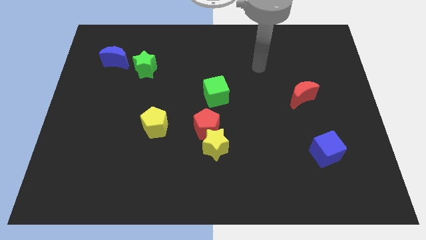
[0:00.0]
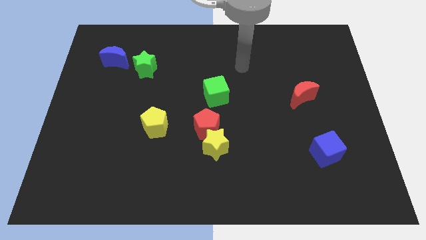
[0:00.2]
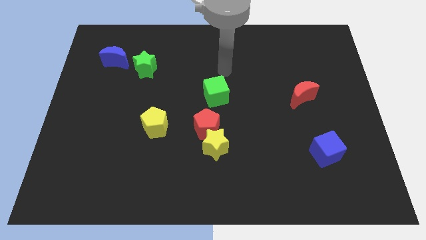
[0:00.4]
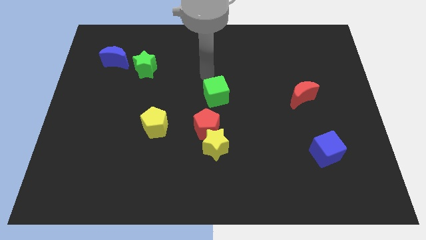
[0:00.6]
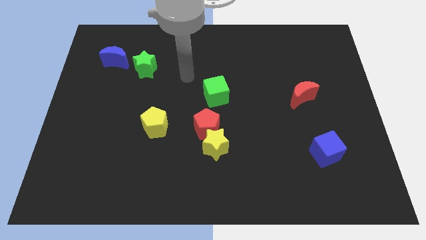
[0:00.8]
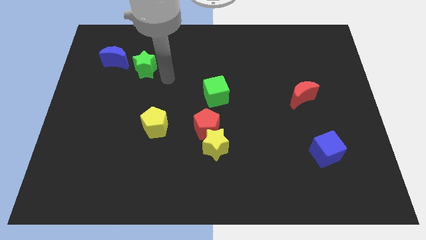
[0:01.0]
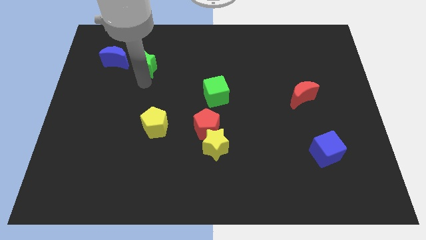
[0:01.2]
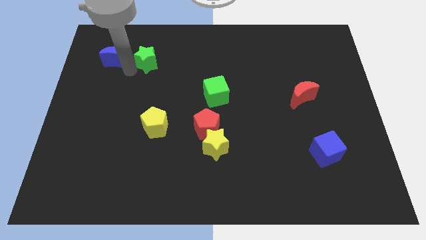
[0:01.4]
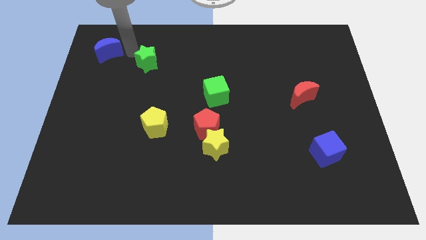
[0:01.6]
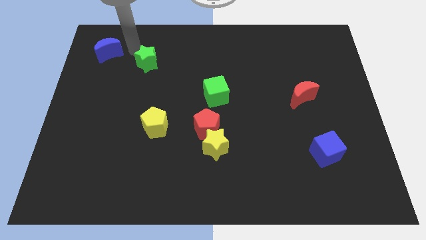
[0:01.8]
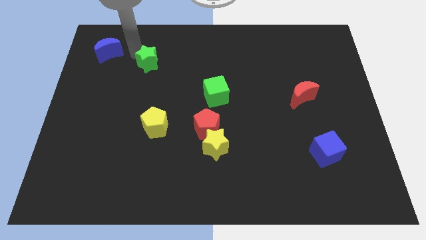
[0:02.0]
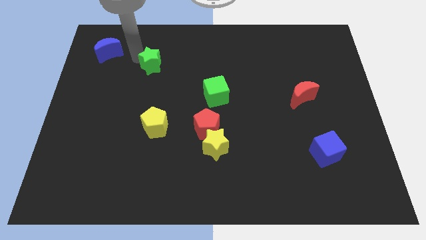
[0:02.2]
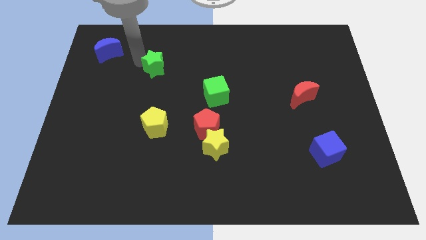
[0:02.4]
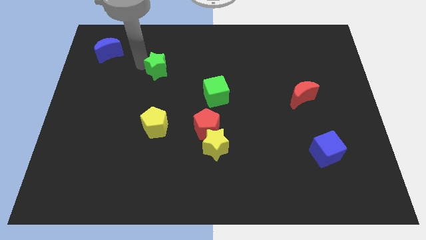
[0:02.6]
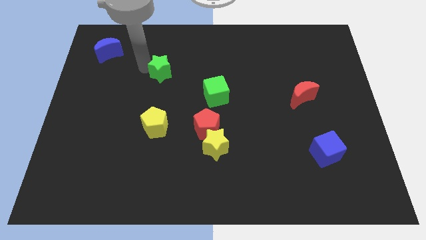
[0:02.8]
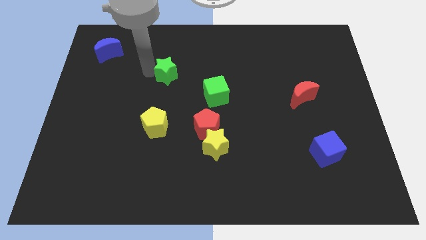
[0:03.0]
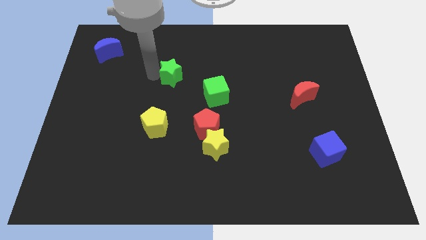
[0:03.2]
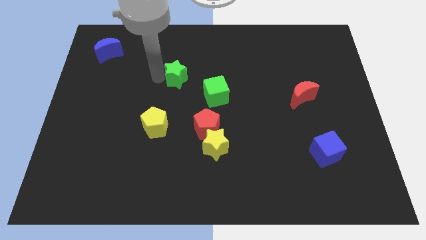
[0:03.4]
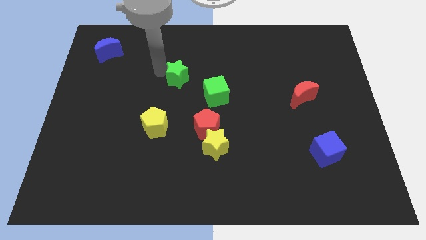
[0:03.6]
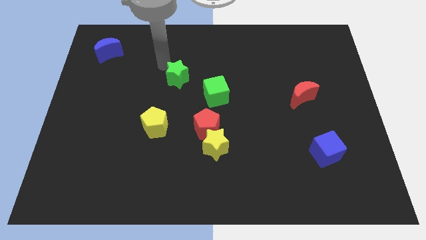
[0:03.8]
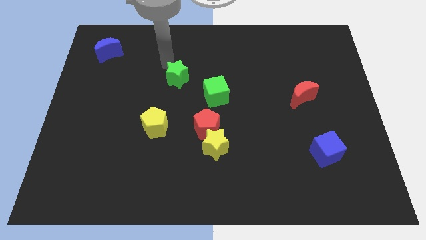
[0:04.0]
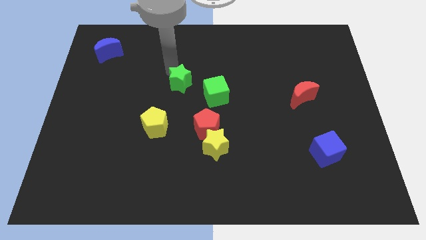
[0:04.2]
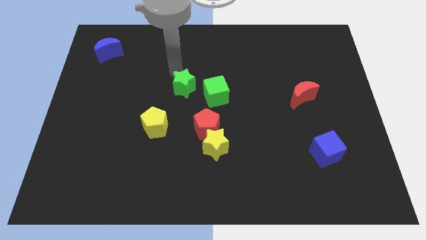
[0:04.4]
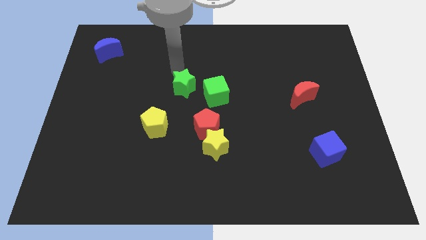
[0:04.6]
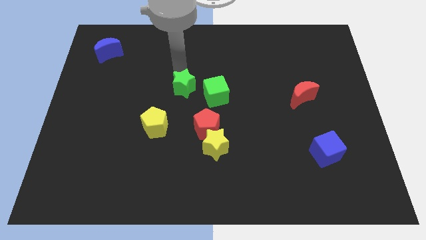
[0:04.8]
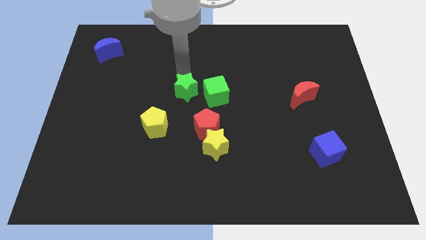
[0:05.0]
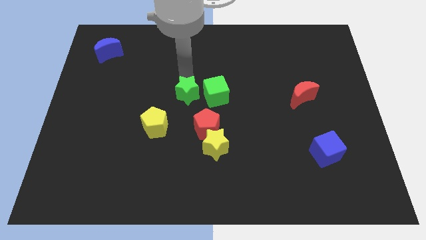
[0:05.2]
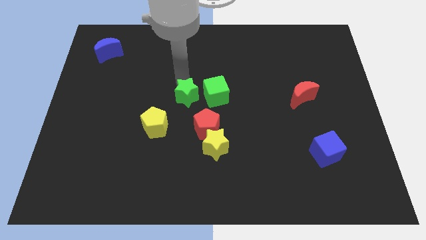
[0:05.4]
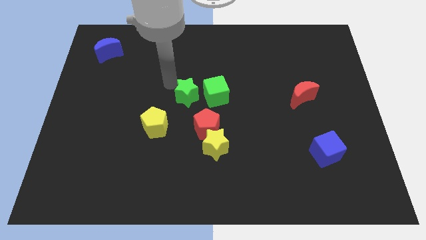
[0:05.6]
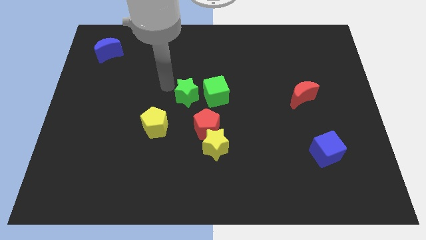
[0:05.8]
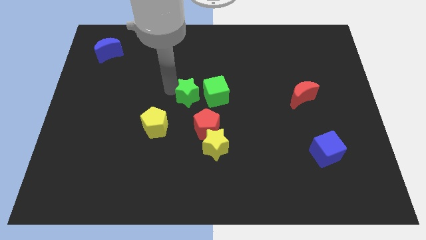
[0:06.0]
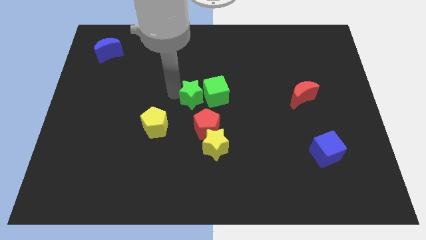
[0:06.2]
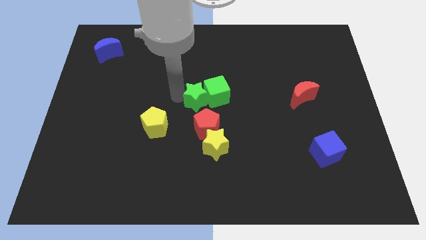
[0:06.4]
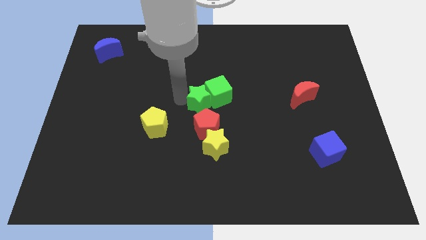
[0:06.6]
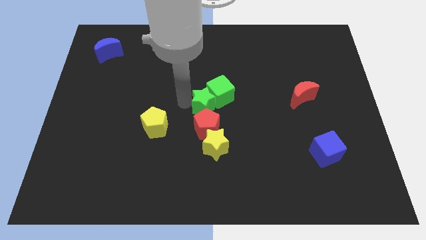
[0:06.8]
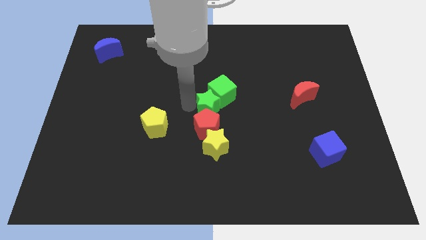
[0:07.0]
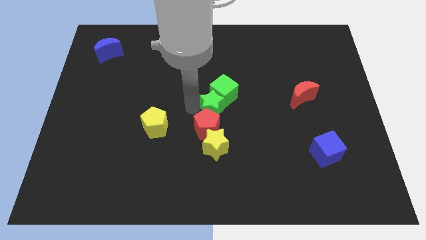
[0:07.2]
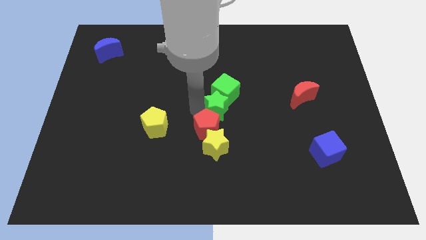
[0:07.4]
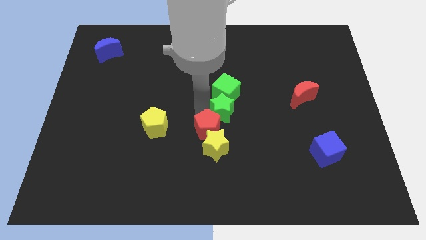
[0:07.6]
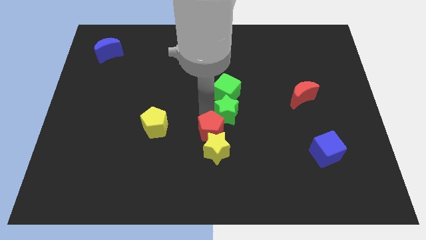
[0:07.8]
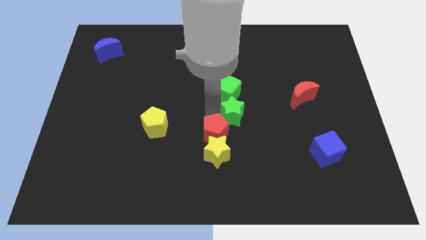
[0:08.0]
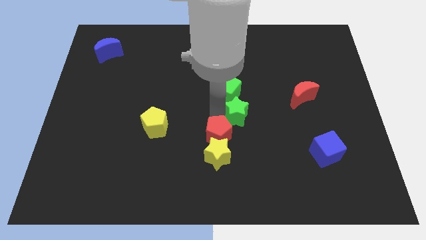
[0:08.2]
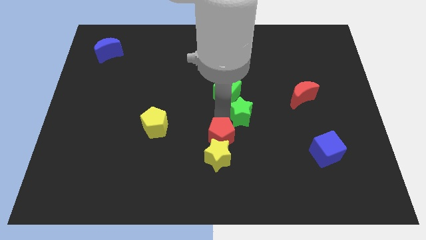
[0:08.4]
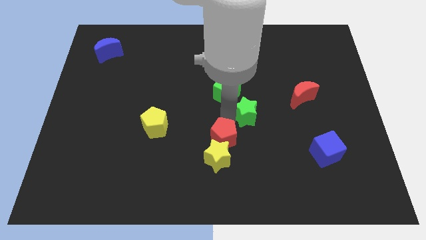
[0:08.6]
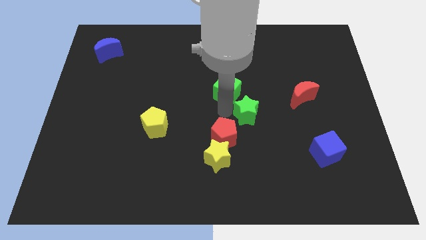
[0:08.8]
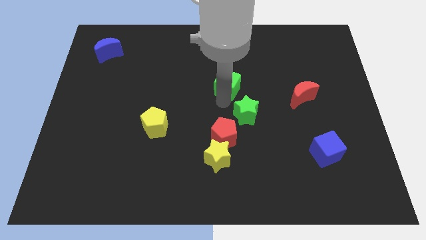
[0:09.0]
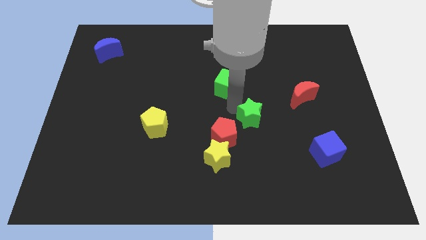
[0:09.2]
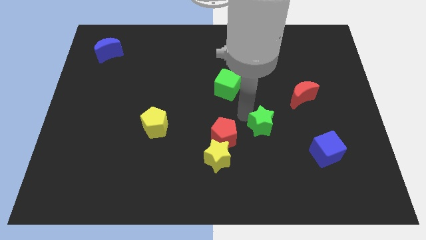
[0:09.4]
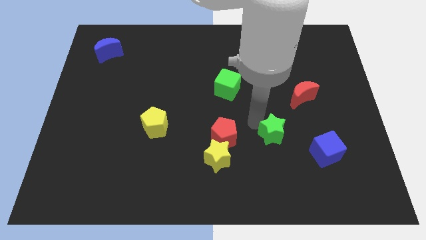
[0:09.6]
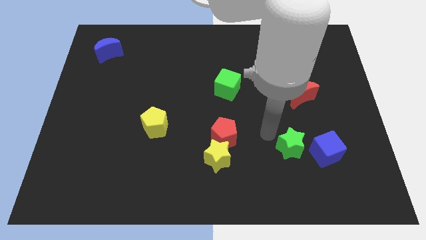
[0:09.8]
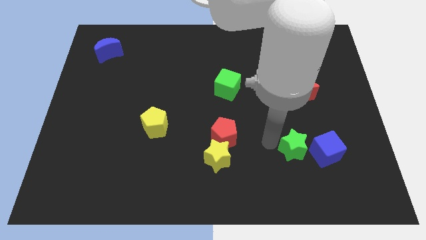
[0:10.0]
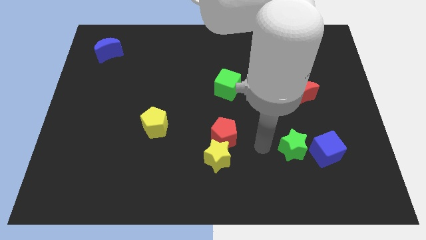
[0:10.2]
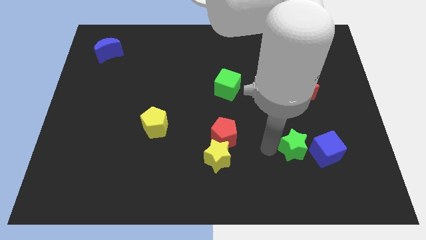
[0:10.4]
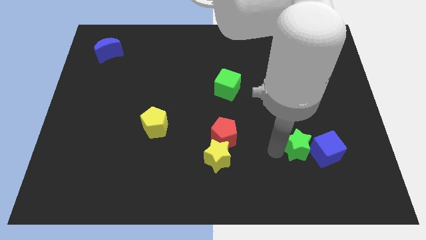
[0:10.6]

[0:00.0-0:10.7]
push the green star to the blue cube
